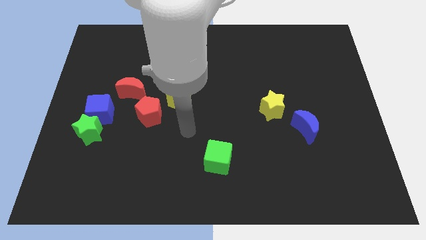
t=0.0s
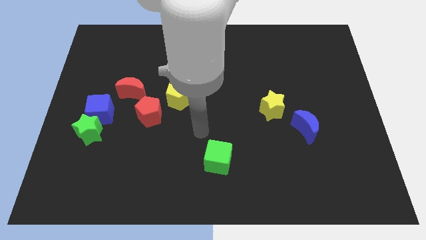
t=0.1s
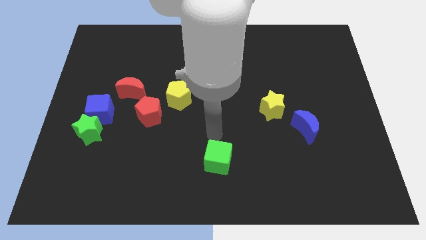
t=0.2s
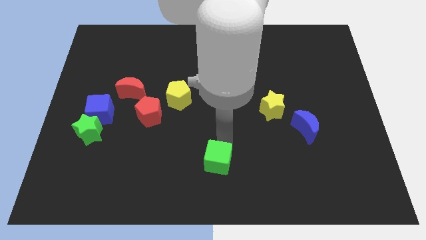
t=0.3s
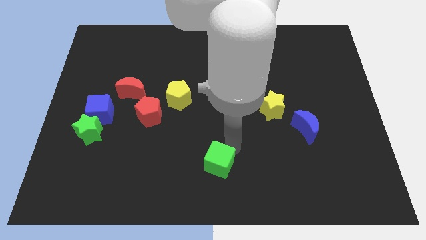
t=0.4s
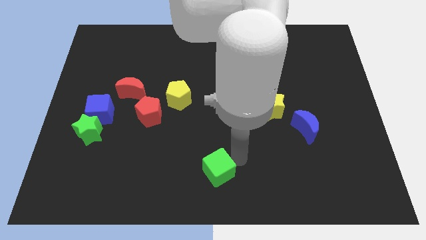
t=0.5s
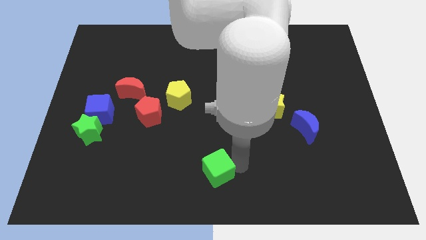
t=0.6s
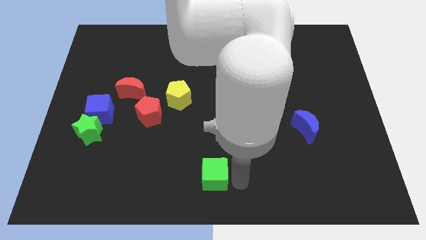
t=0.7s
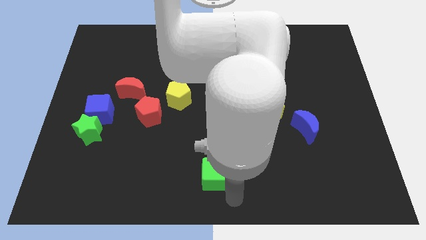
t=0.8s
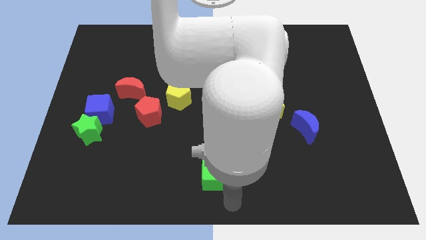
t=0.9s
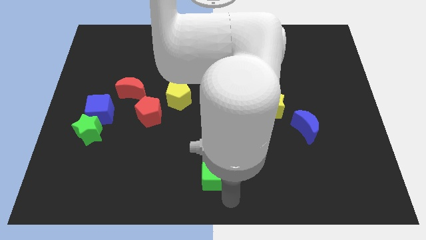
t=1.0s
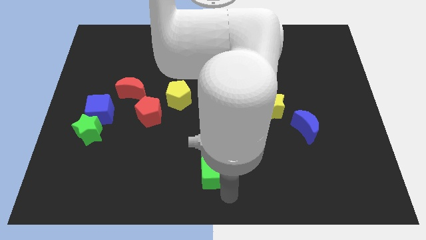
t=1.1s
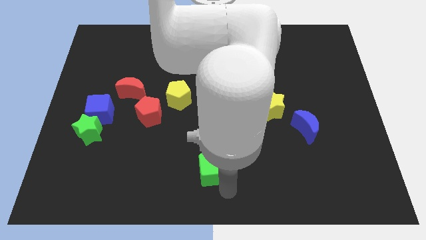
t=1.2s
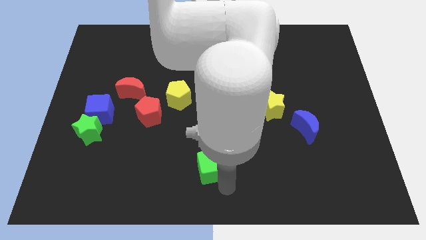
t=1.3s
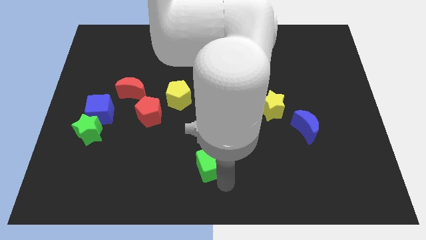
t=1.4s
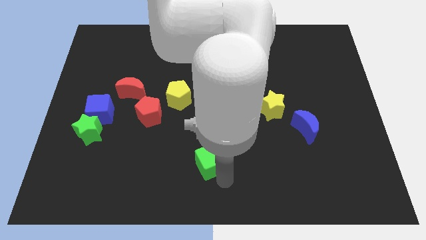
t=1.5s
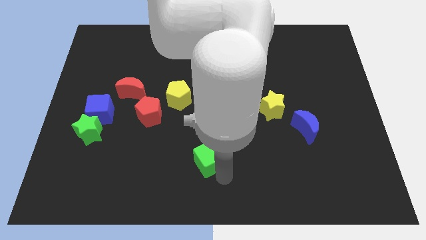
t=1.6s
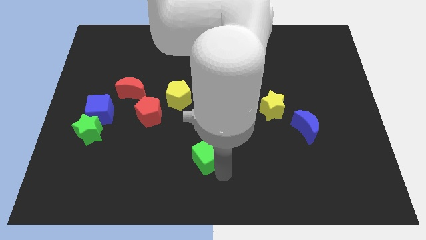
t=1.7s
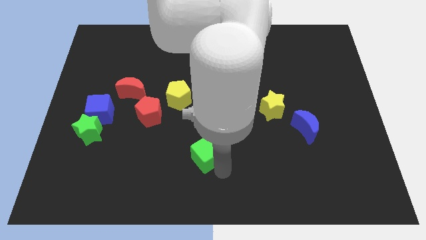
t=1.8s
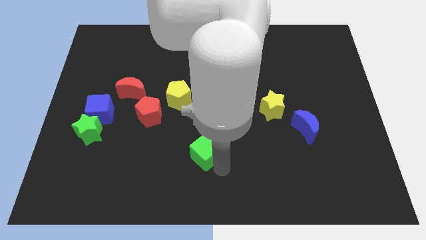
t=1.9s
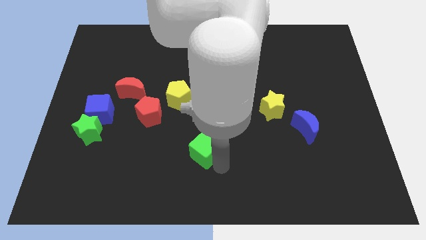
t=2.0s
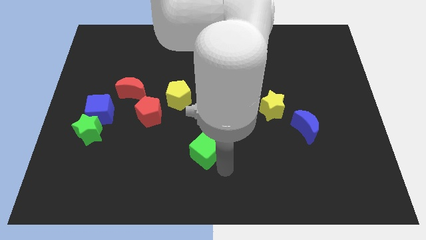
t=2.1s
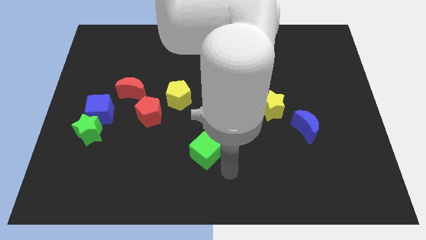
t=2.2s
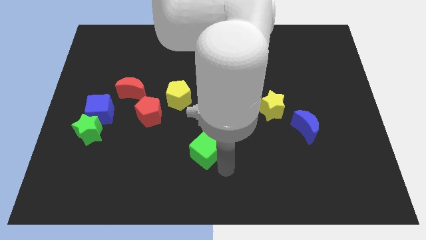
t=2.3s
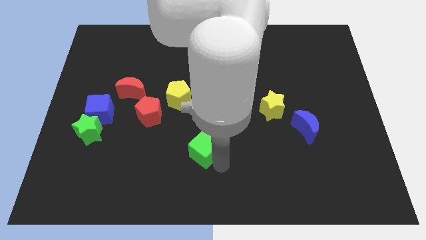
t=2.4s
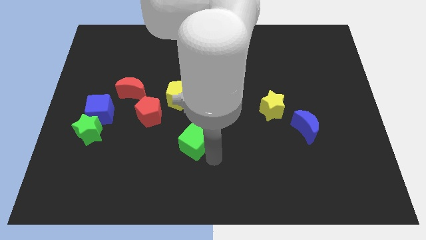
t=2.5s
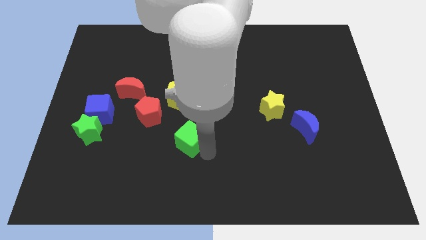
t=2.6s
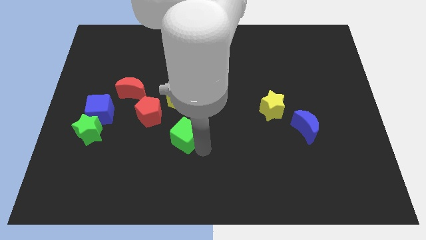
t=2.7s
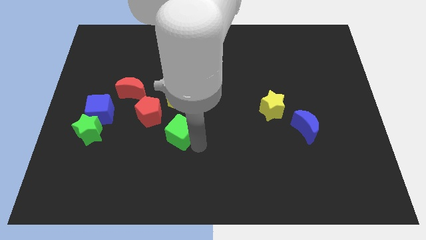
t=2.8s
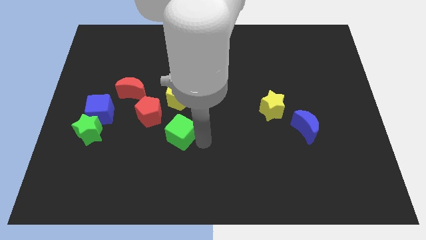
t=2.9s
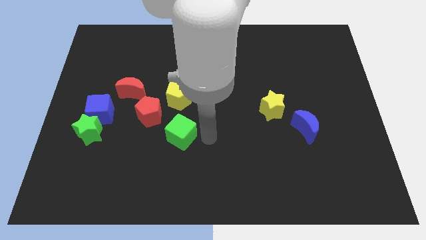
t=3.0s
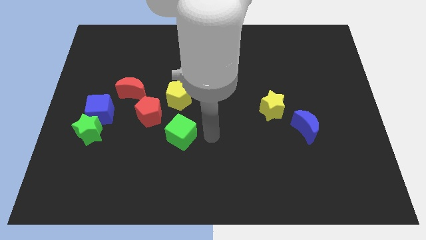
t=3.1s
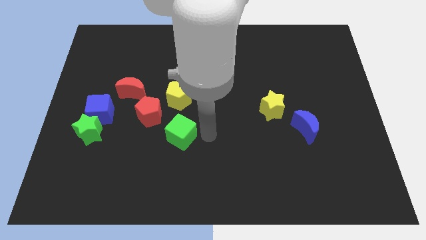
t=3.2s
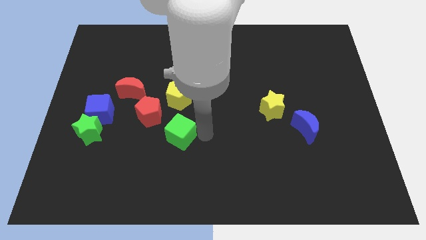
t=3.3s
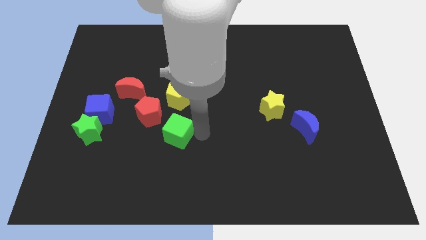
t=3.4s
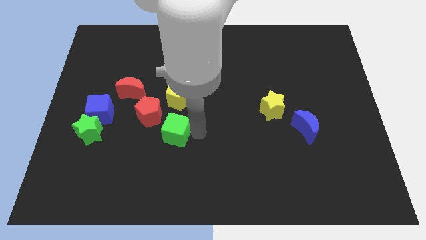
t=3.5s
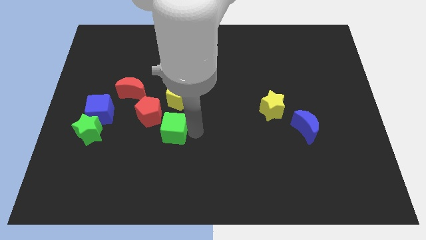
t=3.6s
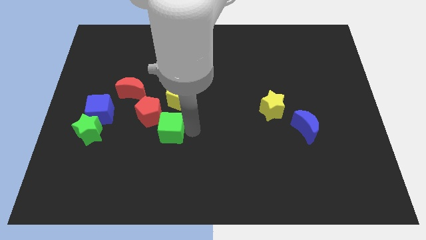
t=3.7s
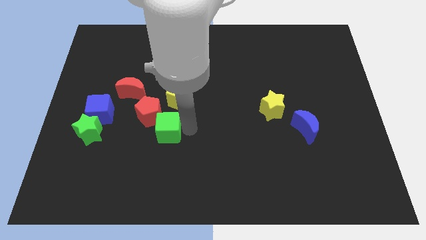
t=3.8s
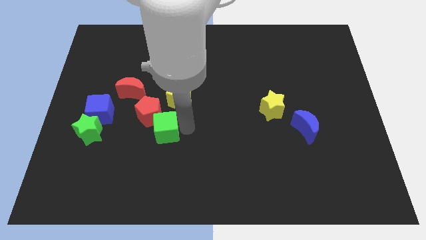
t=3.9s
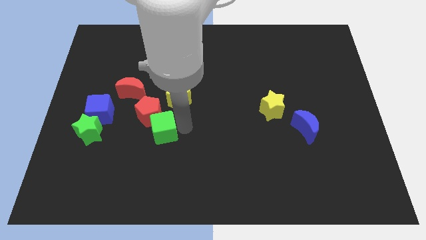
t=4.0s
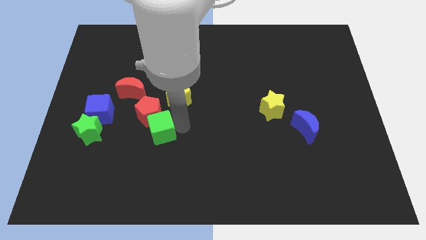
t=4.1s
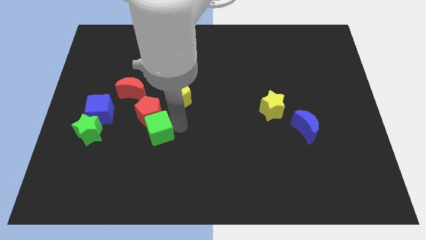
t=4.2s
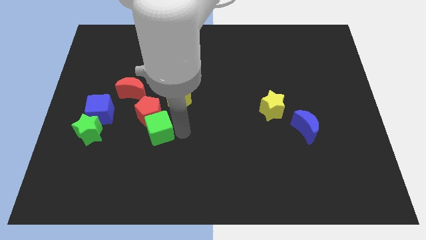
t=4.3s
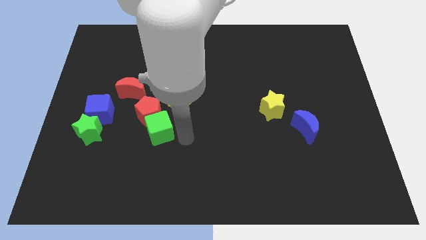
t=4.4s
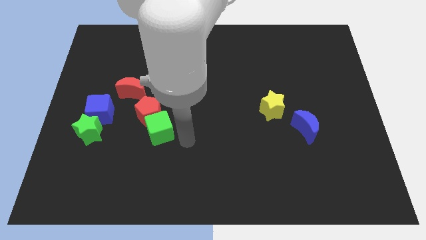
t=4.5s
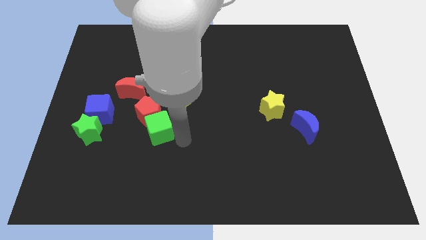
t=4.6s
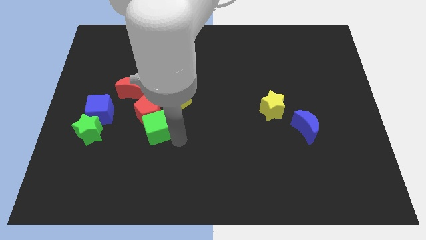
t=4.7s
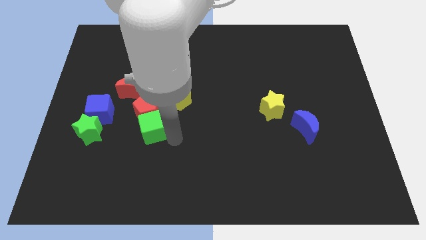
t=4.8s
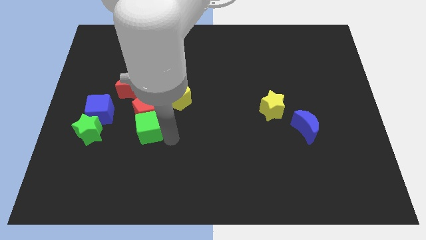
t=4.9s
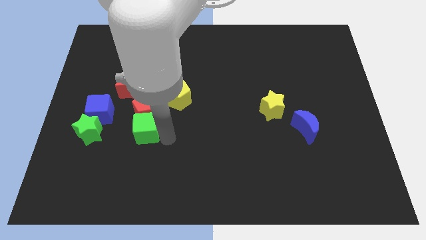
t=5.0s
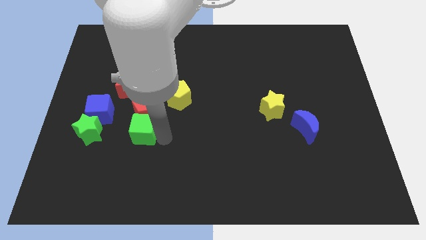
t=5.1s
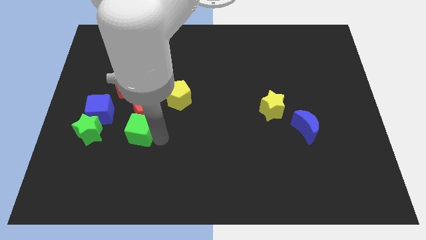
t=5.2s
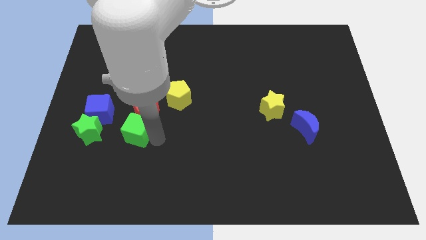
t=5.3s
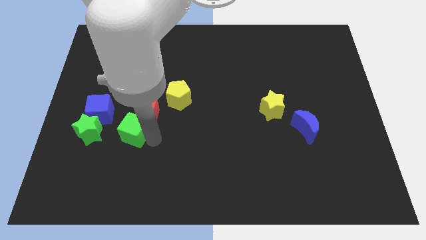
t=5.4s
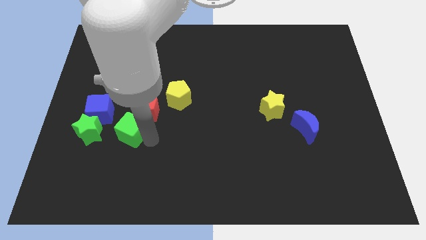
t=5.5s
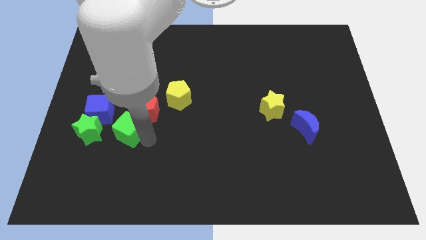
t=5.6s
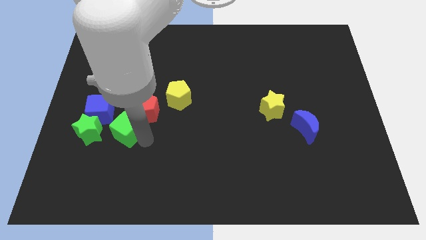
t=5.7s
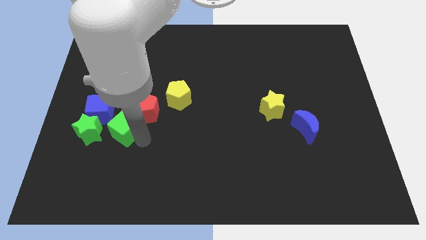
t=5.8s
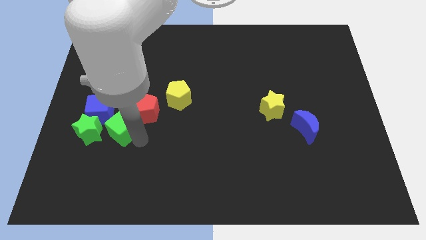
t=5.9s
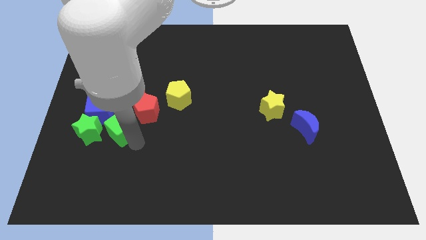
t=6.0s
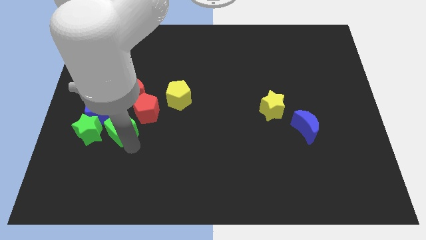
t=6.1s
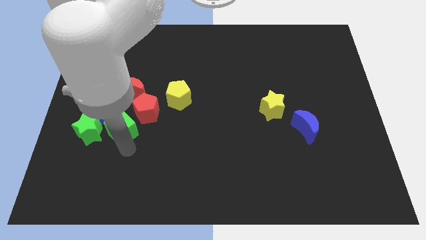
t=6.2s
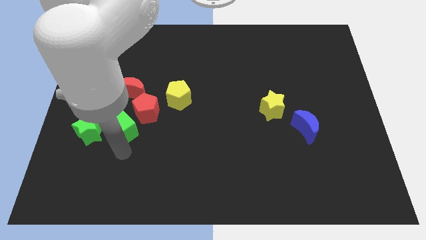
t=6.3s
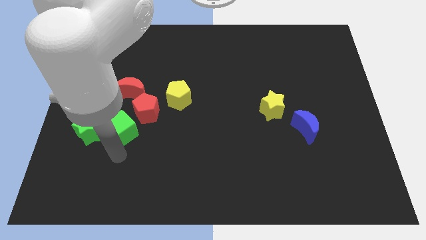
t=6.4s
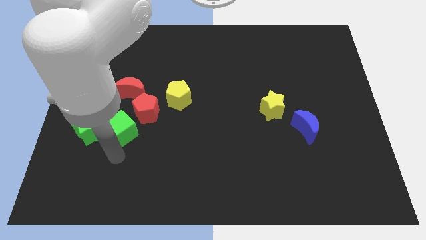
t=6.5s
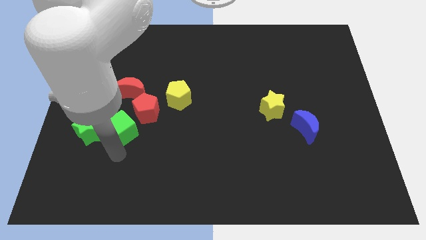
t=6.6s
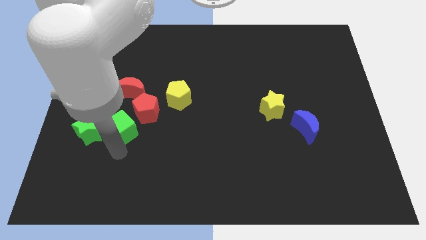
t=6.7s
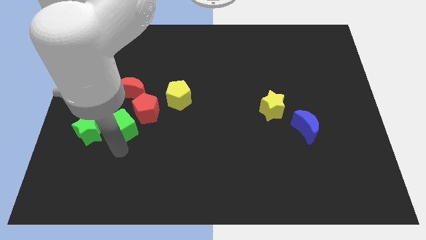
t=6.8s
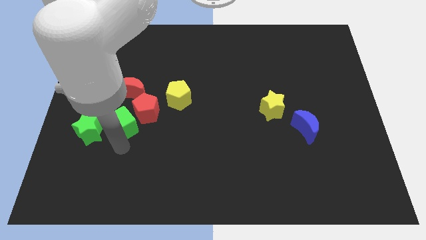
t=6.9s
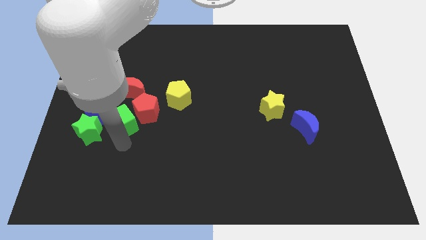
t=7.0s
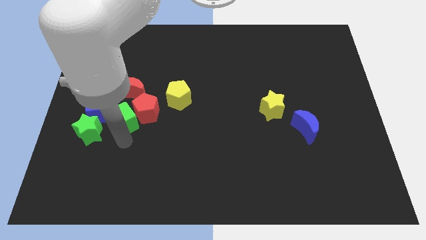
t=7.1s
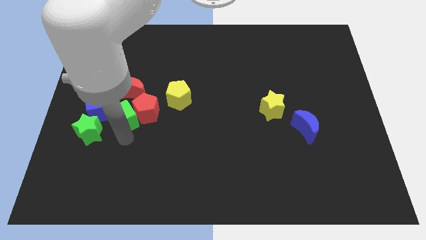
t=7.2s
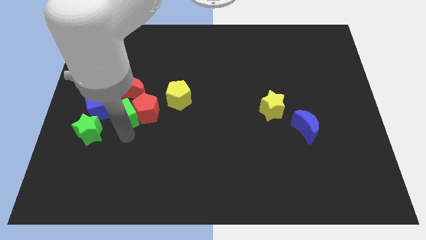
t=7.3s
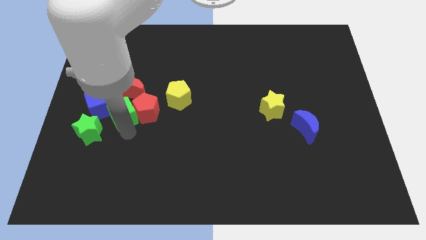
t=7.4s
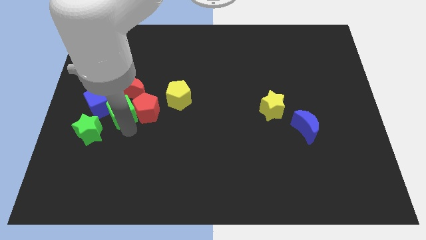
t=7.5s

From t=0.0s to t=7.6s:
slide the green cube to the blue cube
